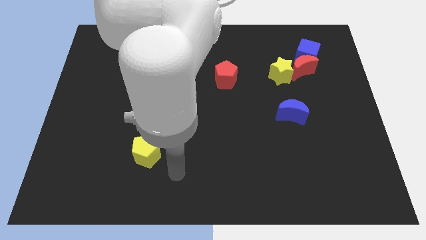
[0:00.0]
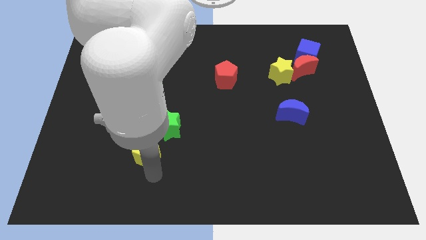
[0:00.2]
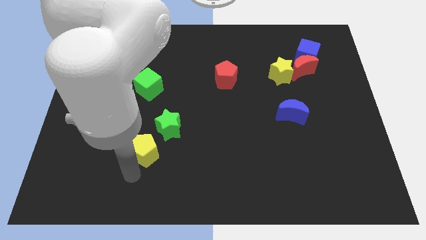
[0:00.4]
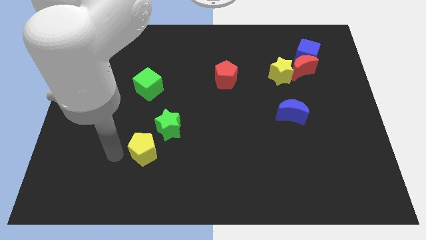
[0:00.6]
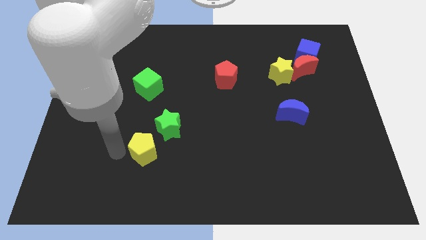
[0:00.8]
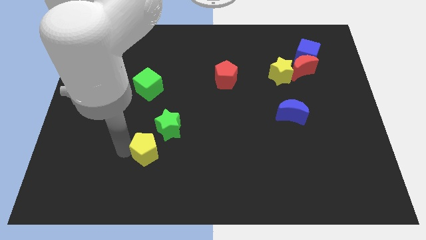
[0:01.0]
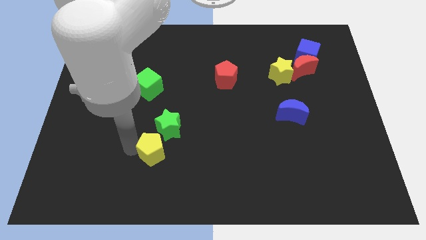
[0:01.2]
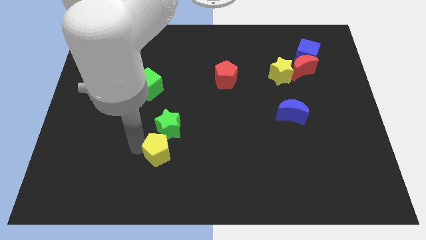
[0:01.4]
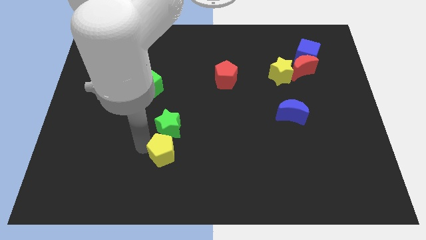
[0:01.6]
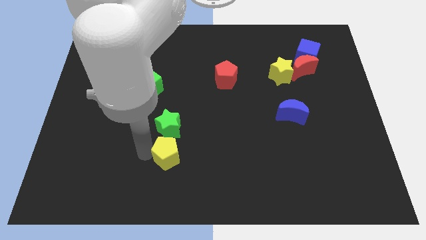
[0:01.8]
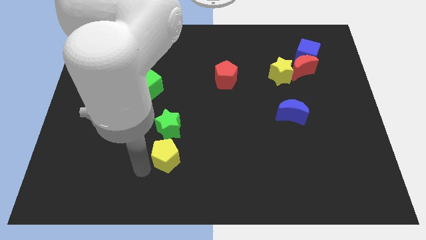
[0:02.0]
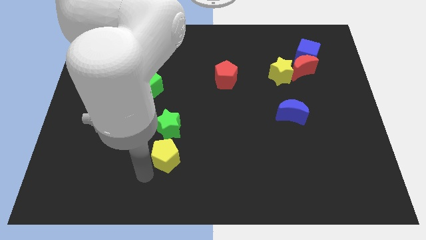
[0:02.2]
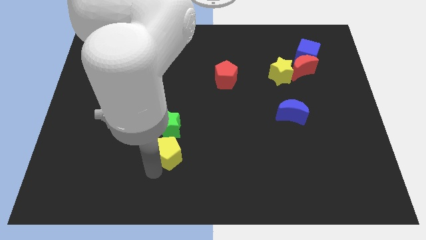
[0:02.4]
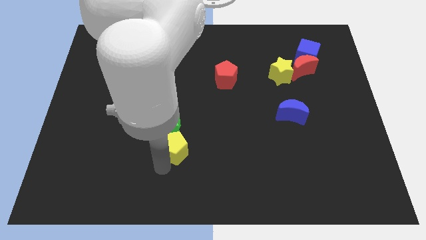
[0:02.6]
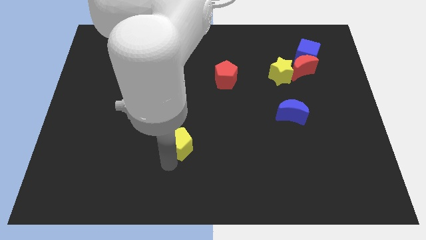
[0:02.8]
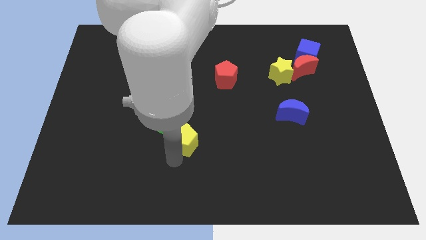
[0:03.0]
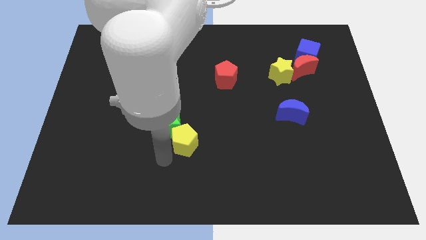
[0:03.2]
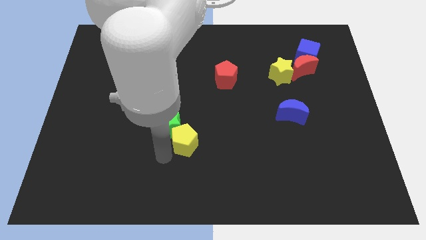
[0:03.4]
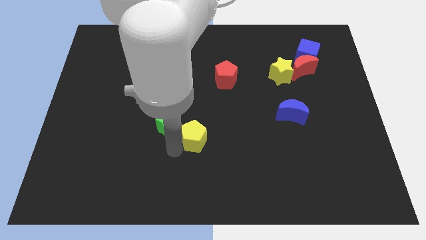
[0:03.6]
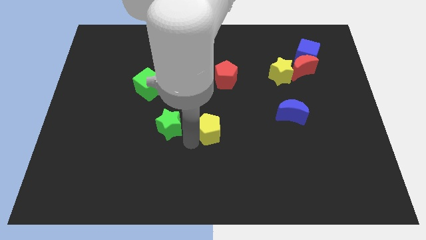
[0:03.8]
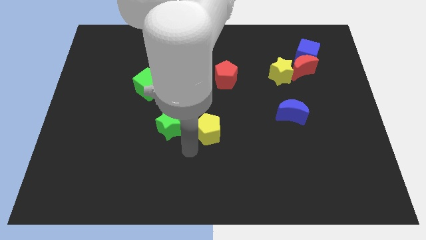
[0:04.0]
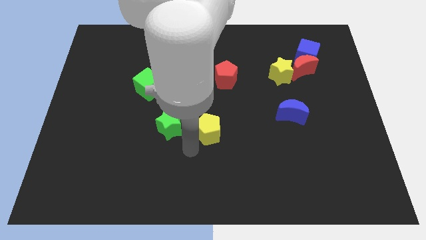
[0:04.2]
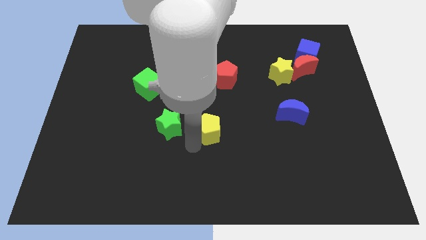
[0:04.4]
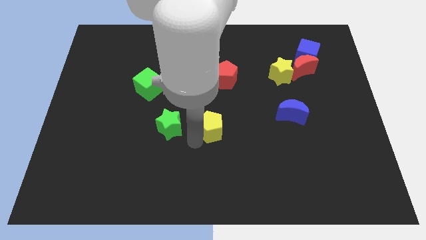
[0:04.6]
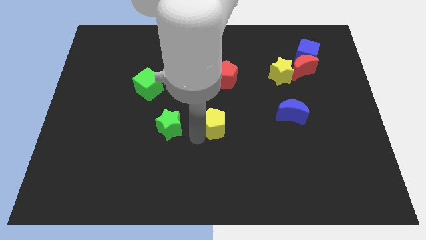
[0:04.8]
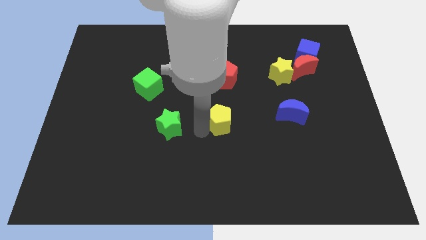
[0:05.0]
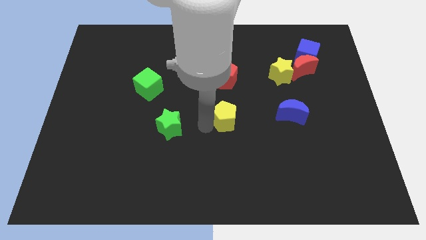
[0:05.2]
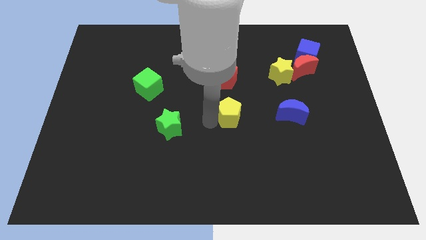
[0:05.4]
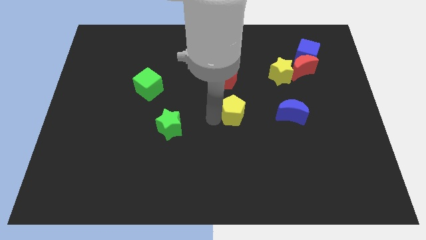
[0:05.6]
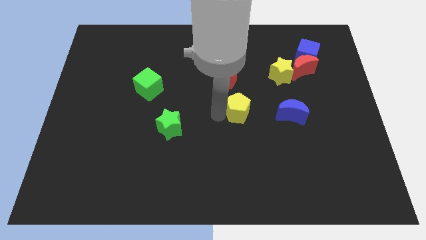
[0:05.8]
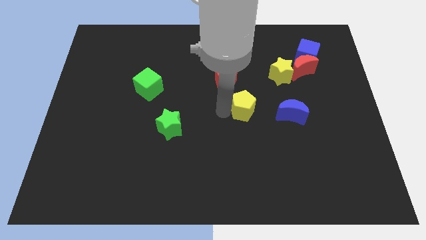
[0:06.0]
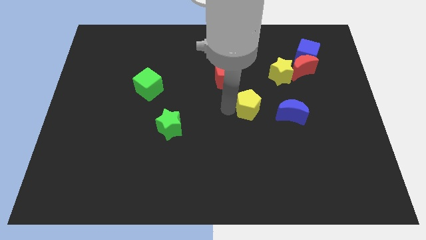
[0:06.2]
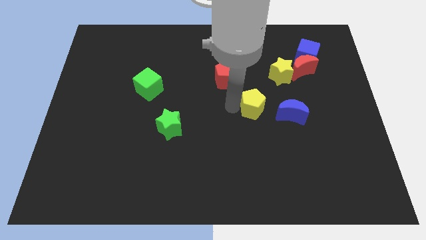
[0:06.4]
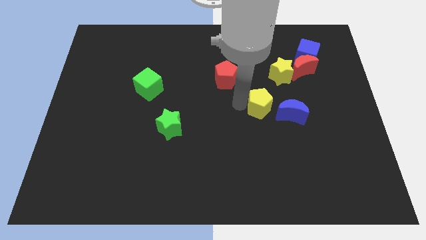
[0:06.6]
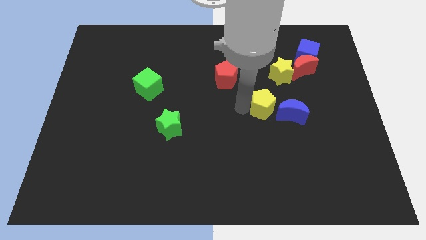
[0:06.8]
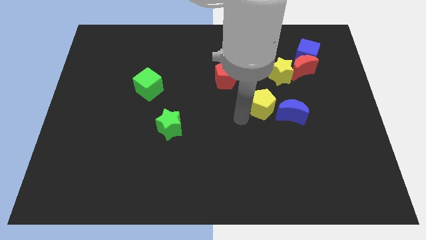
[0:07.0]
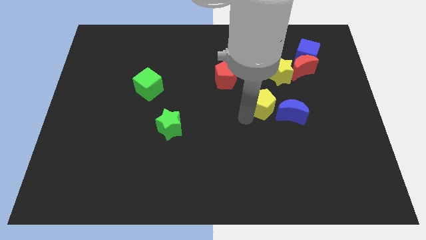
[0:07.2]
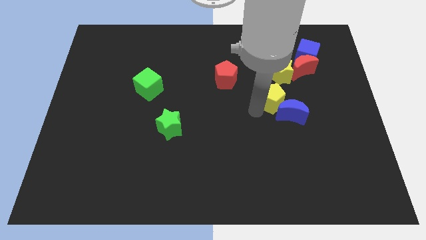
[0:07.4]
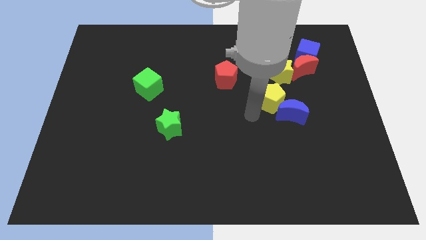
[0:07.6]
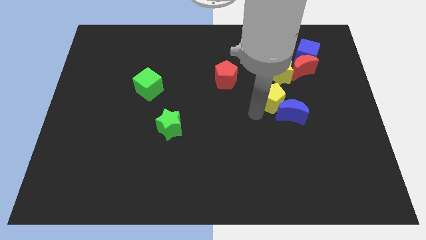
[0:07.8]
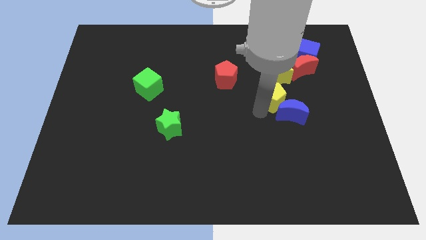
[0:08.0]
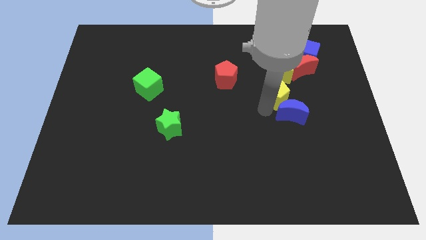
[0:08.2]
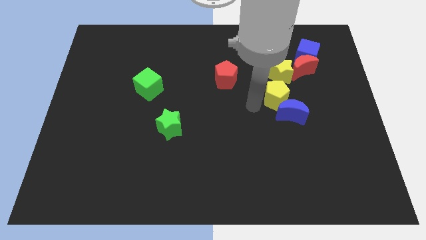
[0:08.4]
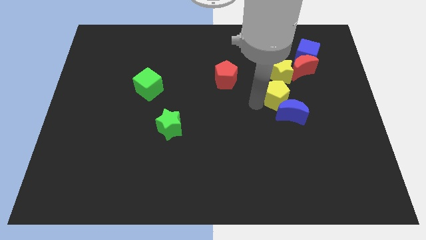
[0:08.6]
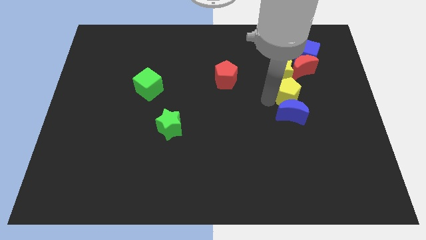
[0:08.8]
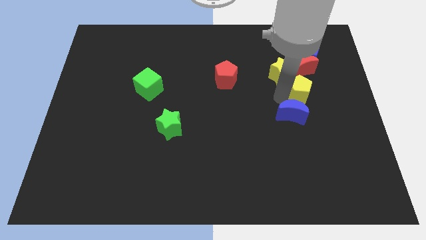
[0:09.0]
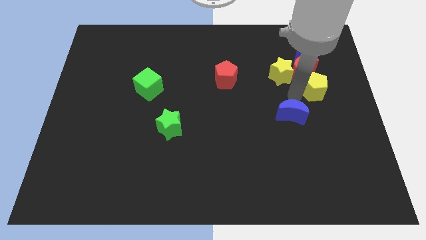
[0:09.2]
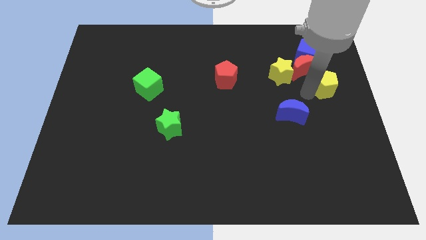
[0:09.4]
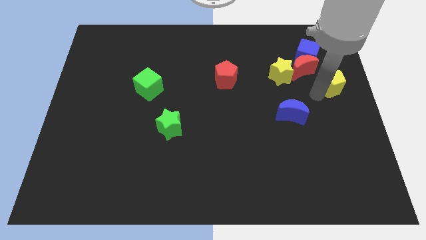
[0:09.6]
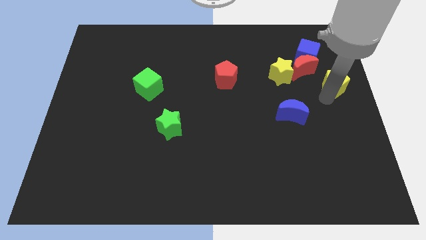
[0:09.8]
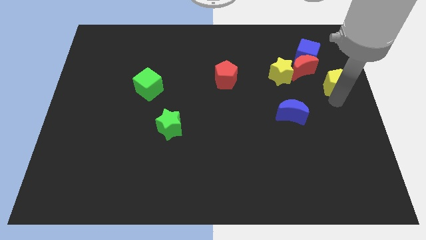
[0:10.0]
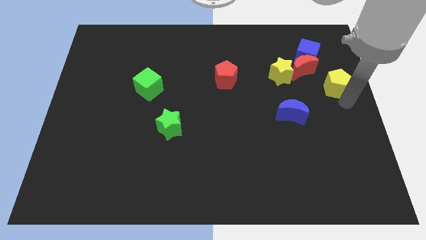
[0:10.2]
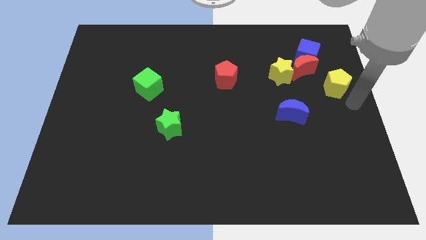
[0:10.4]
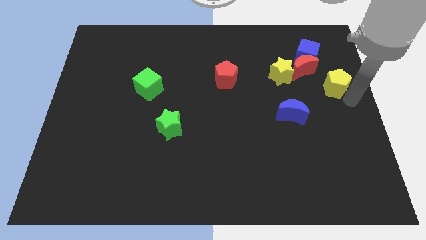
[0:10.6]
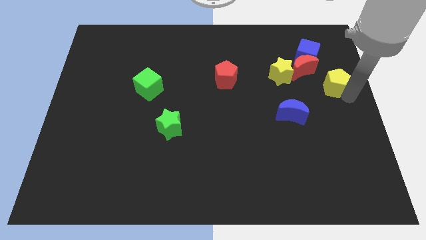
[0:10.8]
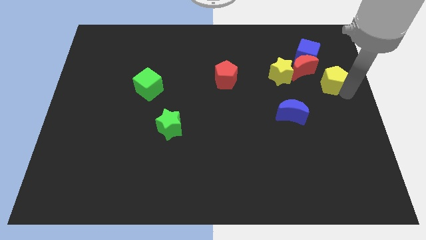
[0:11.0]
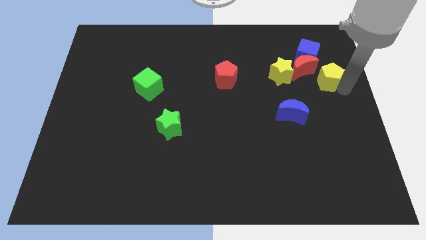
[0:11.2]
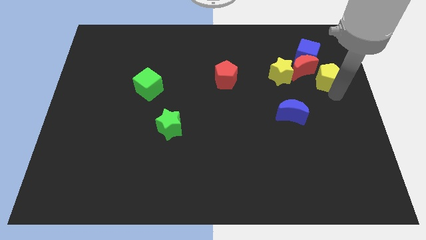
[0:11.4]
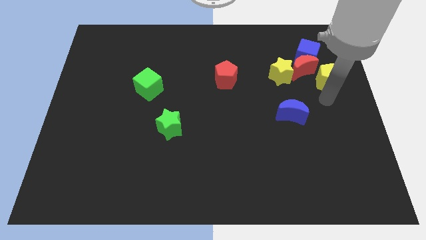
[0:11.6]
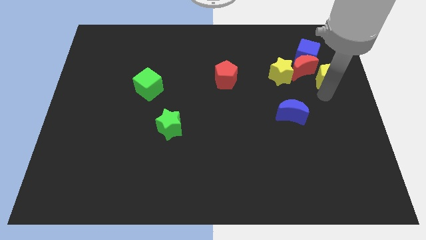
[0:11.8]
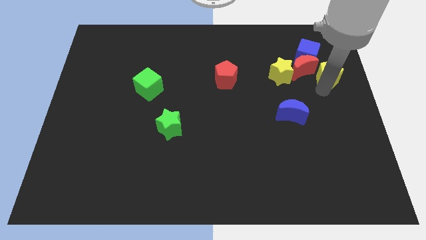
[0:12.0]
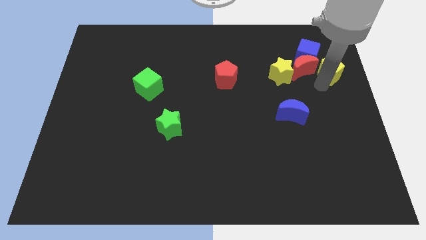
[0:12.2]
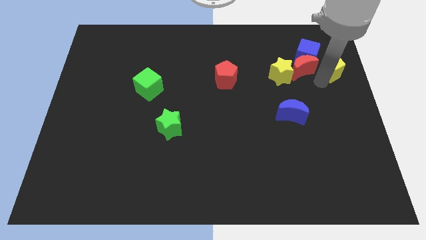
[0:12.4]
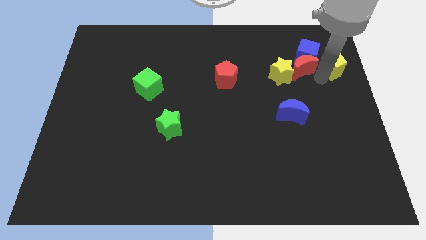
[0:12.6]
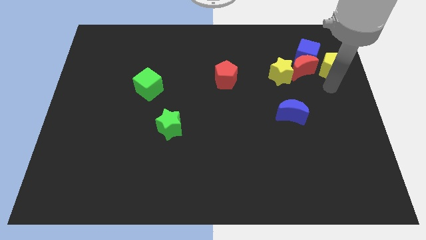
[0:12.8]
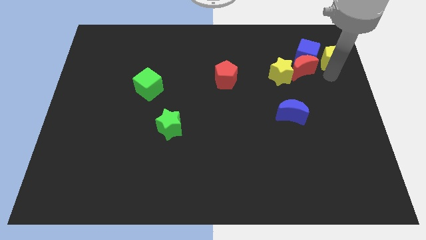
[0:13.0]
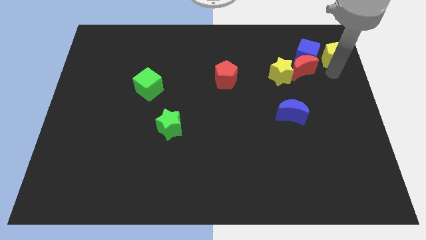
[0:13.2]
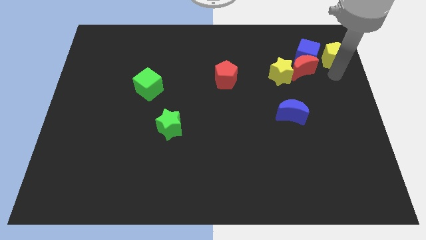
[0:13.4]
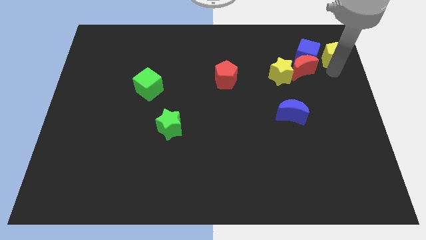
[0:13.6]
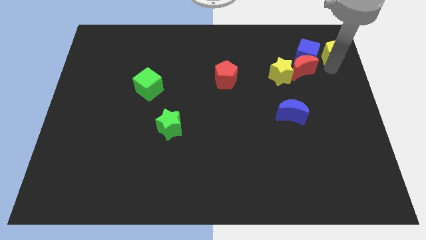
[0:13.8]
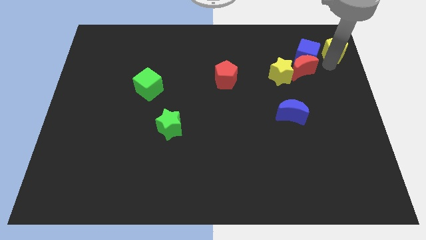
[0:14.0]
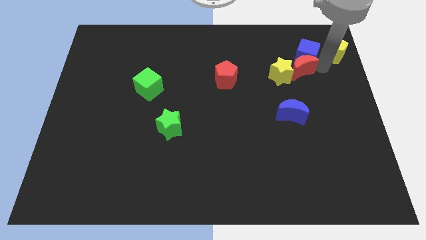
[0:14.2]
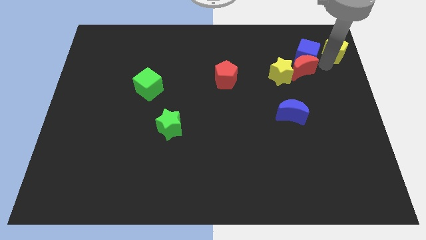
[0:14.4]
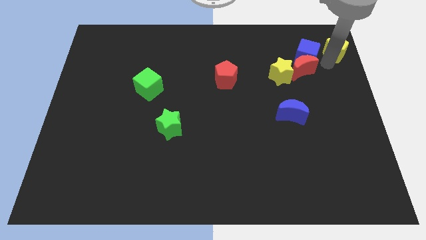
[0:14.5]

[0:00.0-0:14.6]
move the yellow pentagon to the upper right corner
